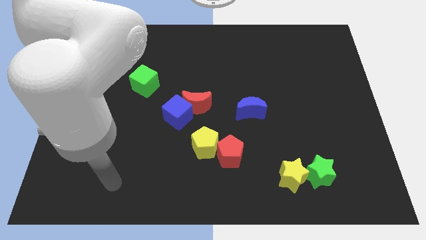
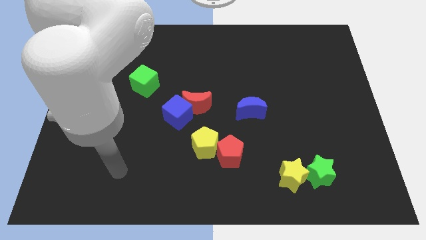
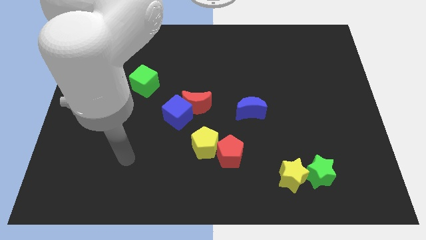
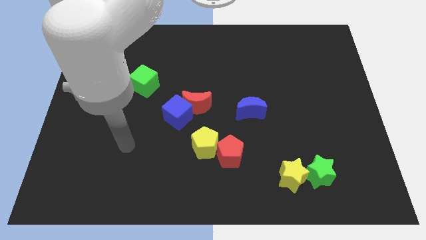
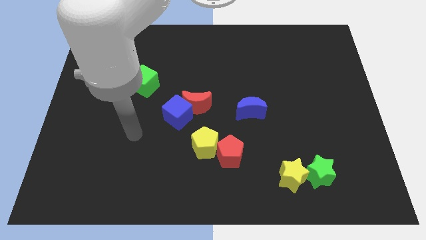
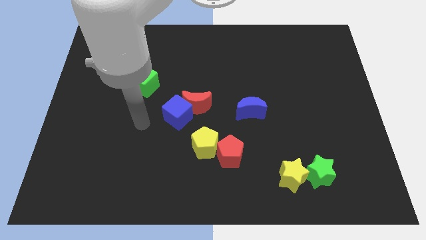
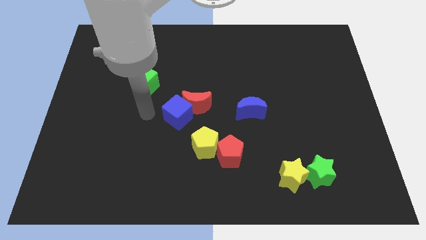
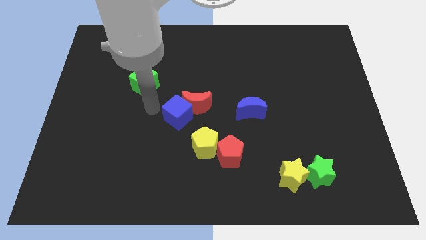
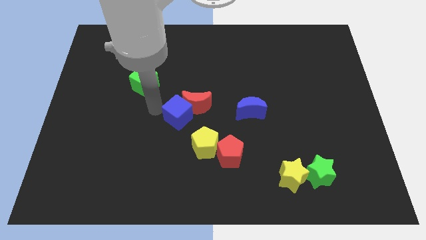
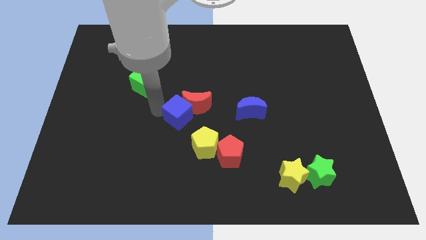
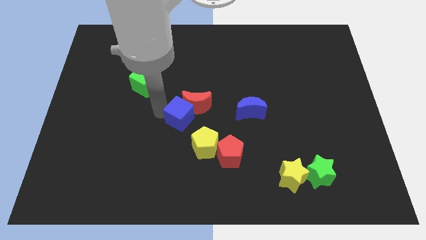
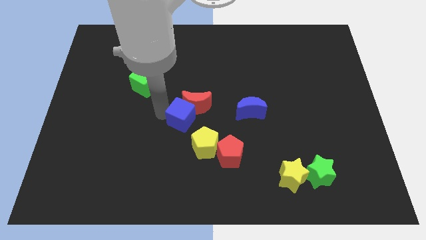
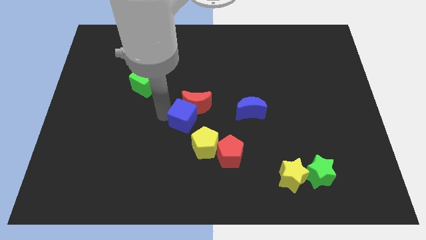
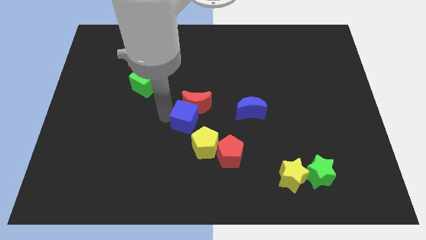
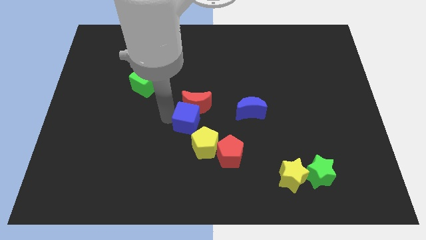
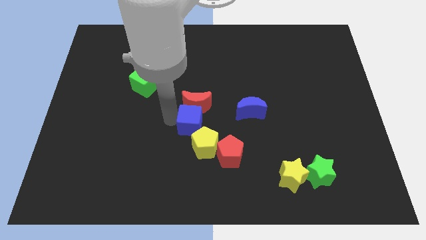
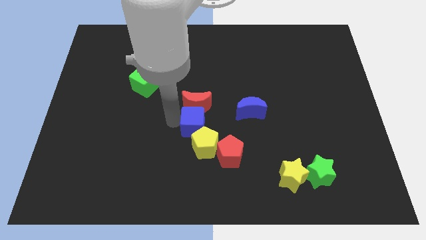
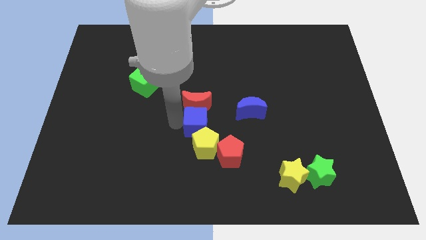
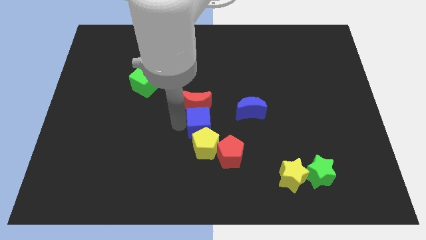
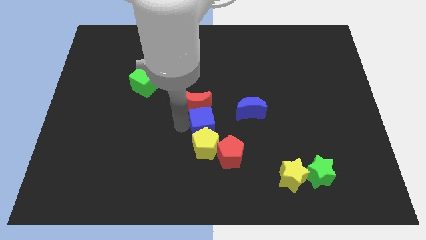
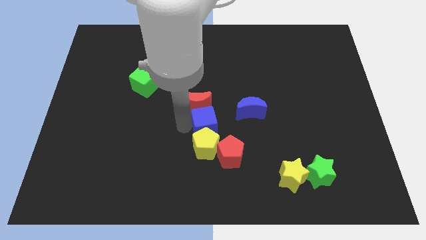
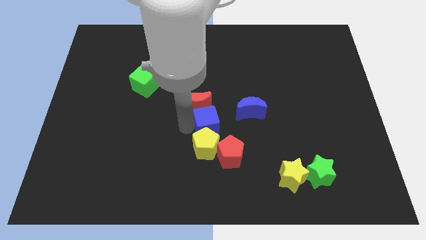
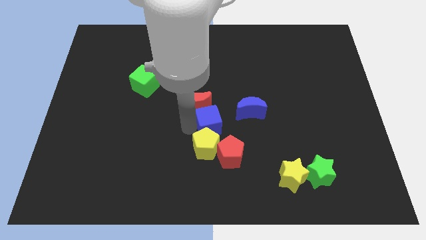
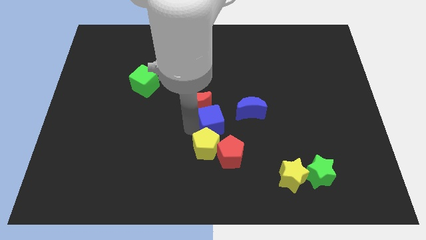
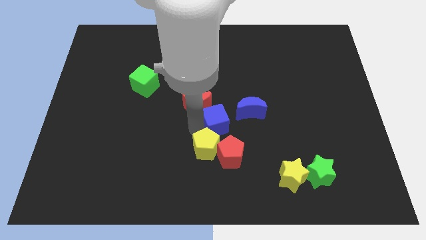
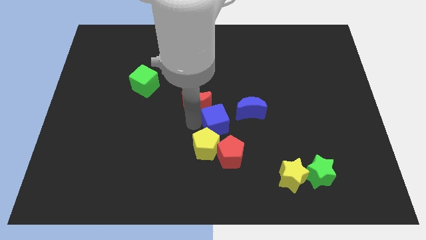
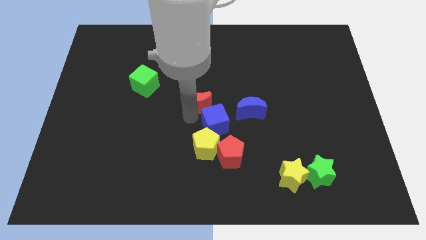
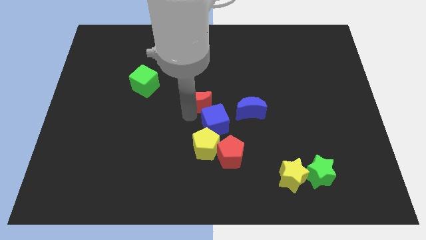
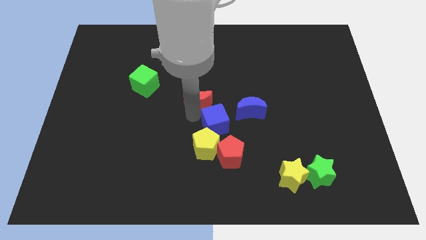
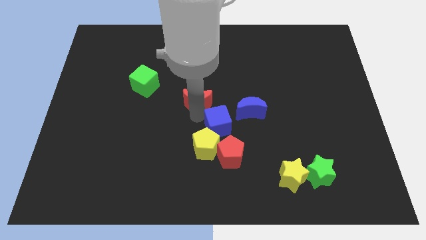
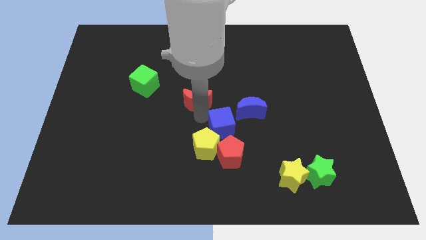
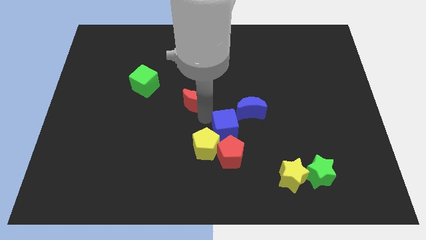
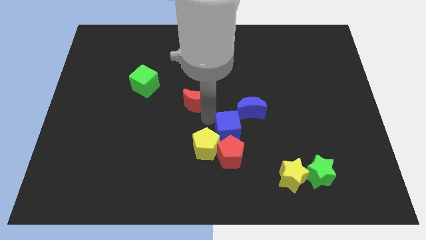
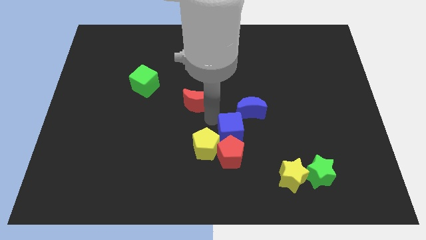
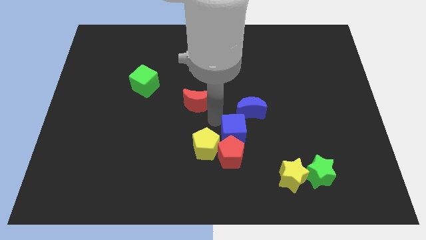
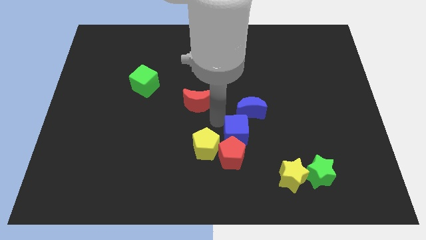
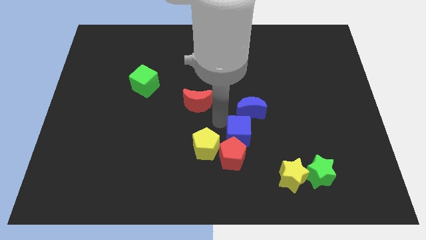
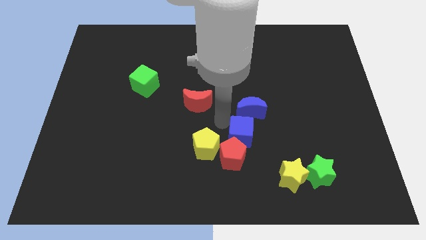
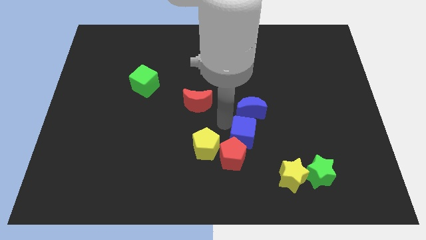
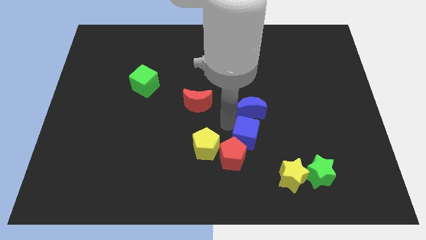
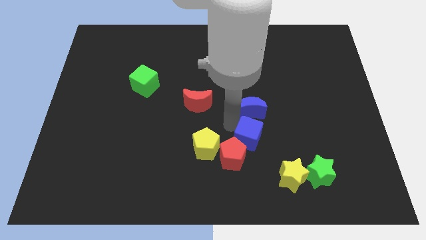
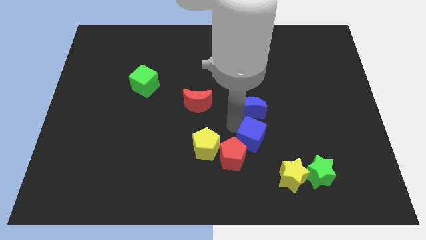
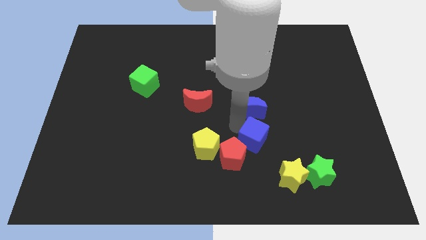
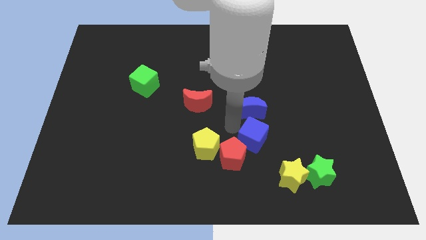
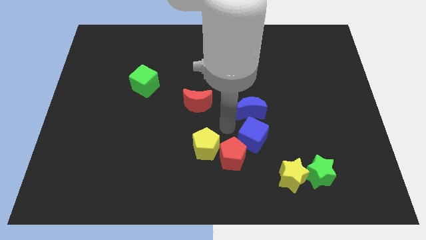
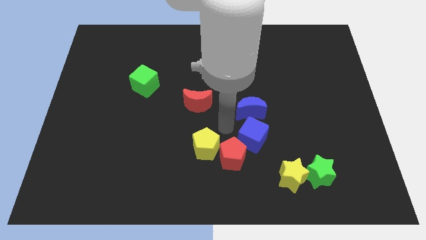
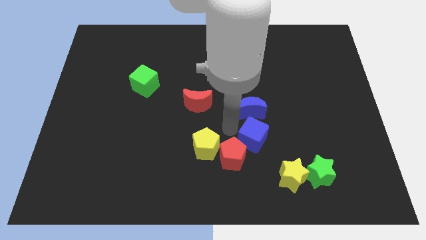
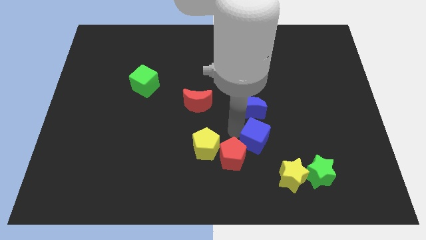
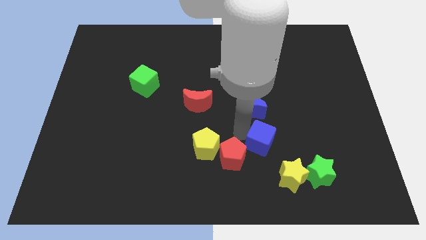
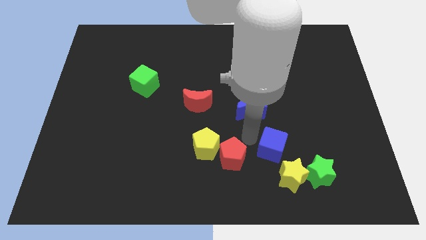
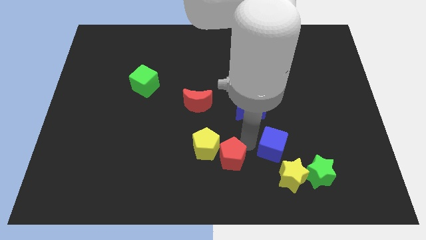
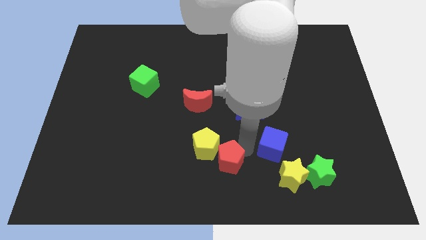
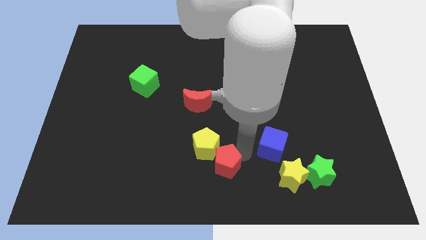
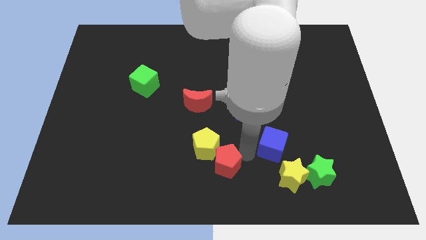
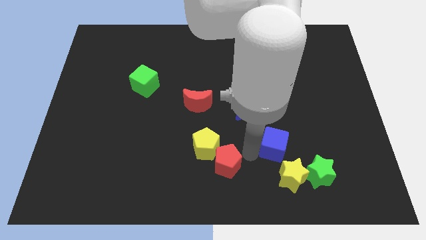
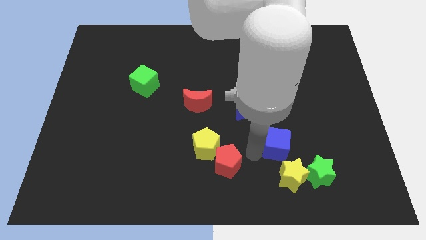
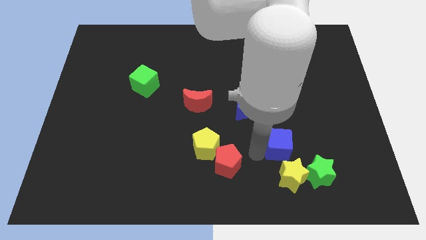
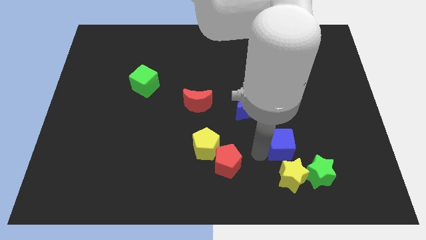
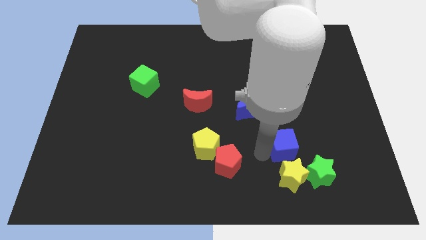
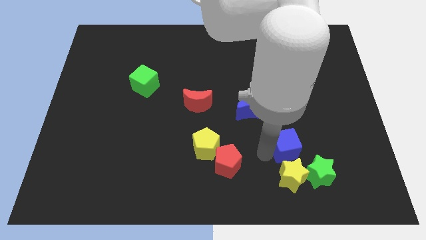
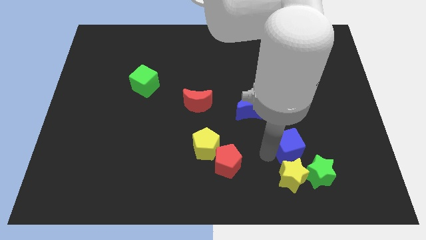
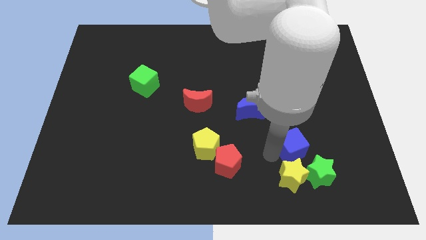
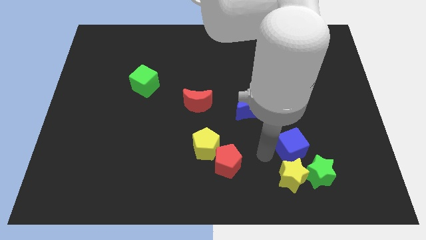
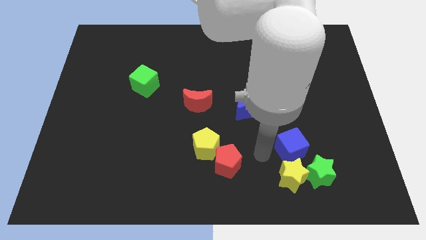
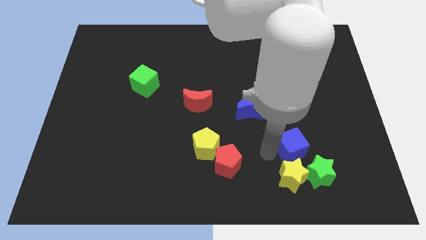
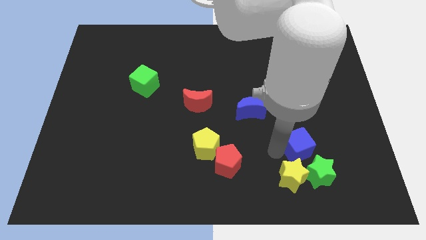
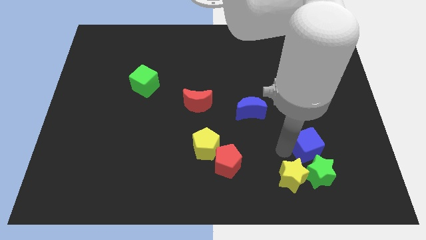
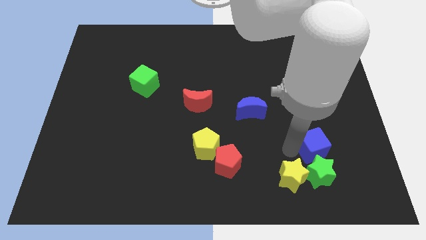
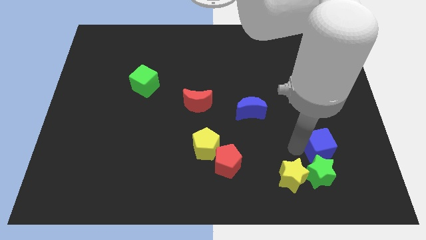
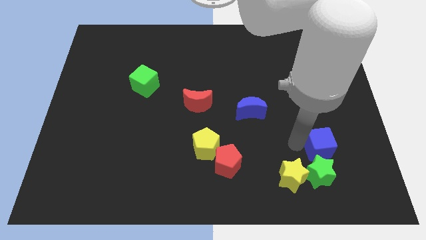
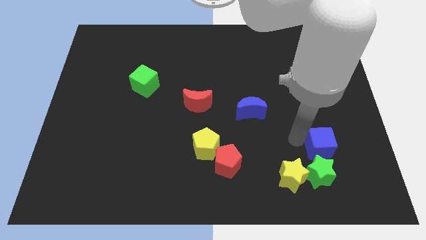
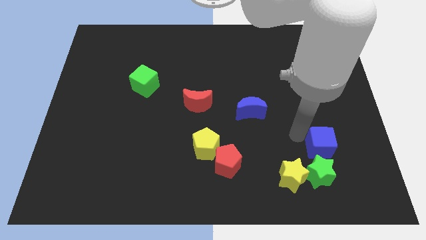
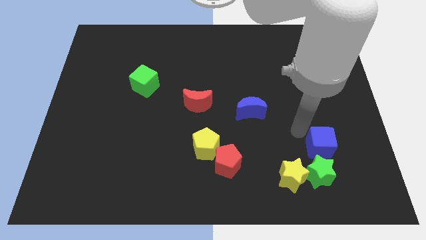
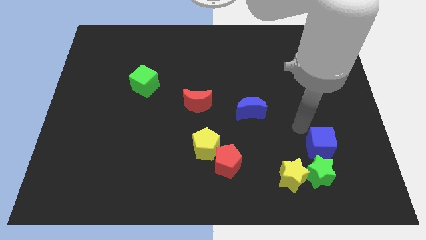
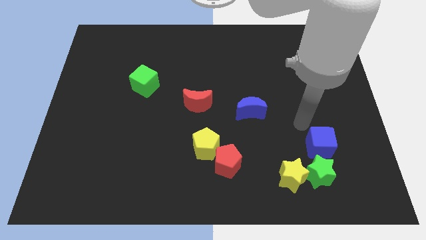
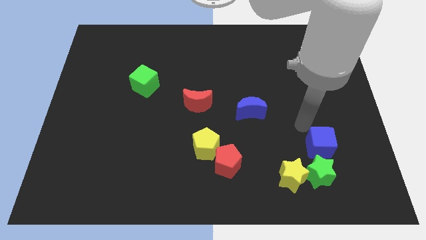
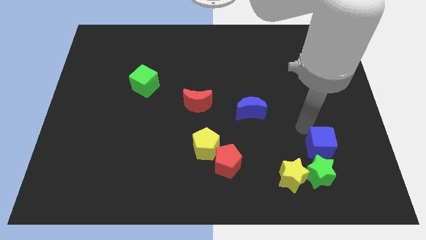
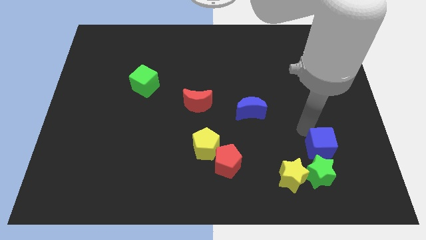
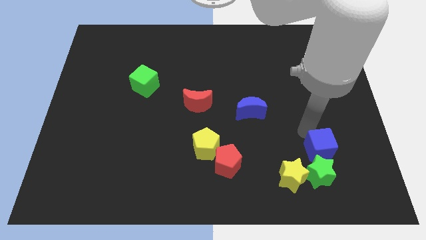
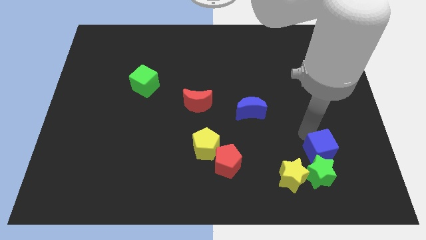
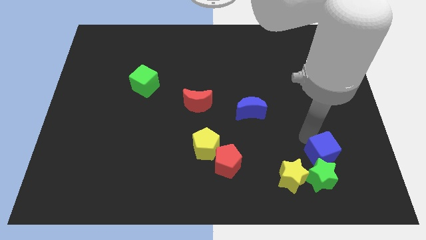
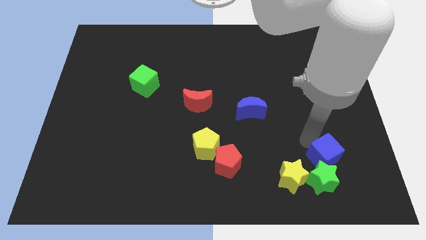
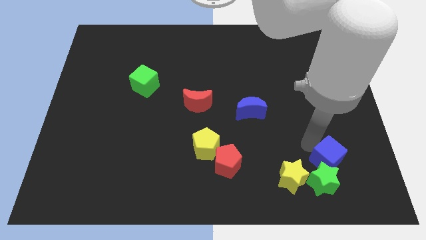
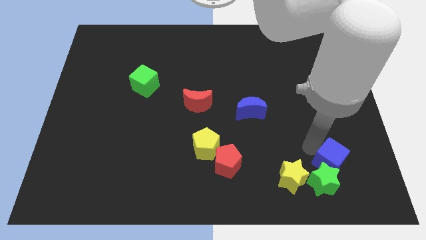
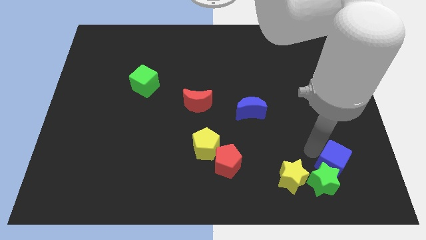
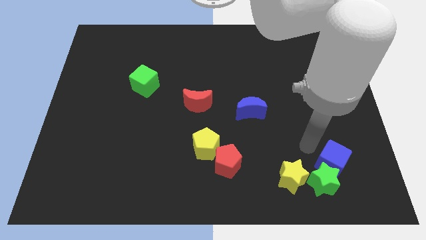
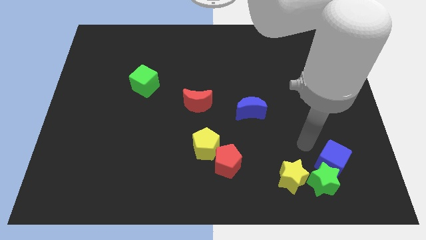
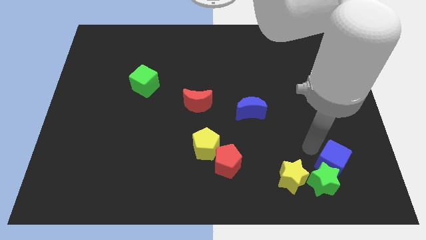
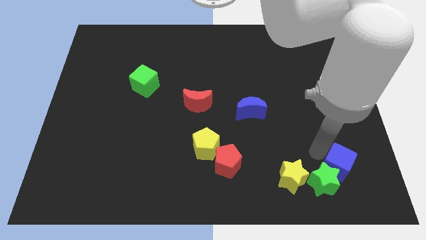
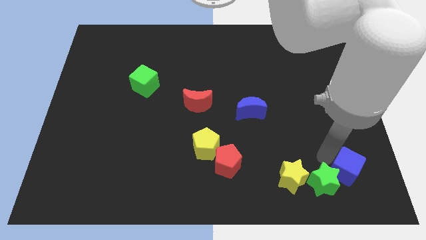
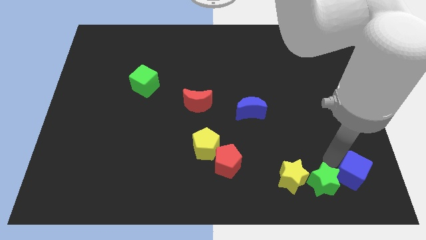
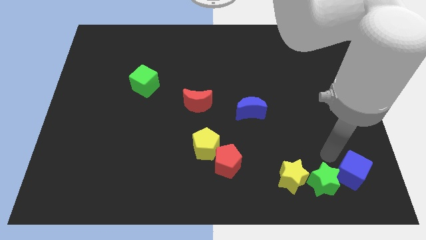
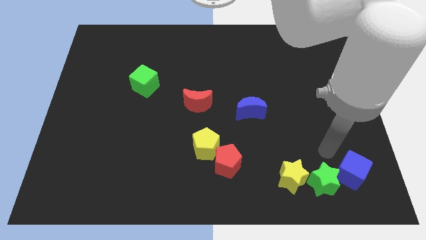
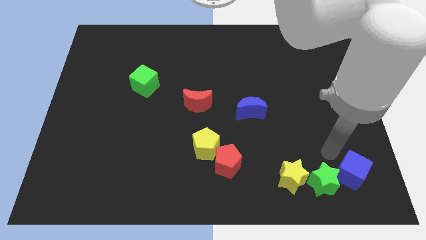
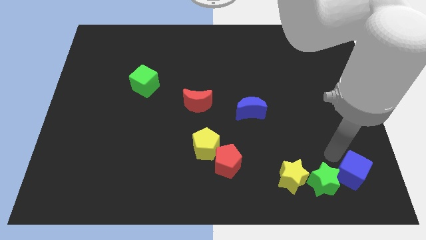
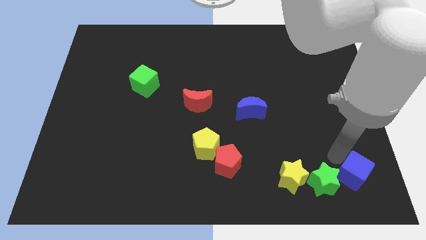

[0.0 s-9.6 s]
push the blue cube to the bottom right
